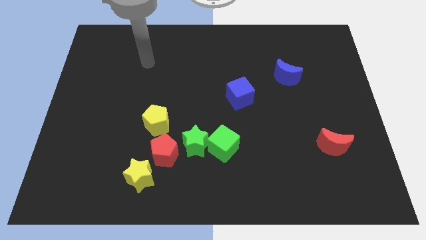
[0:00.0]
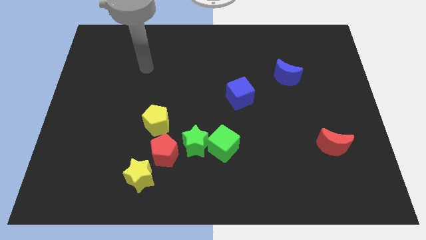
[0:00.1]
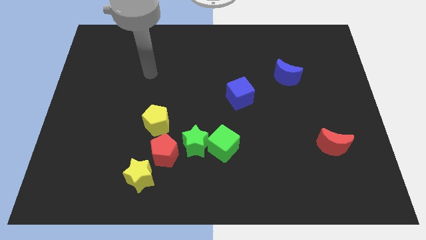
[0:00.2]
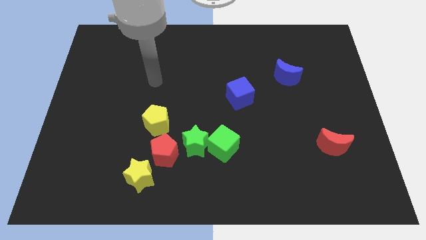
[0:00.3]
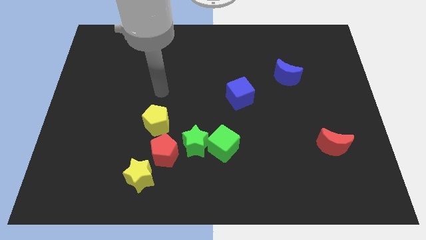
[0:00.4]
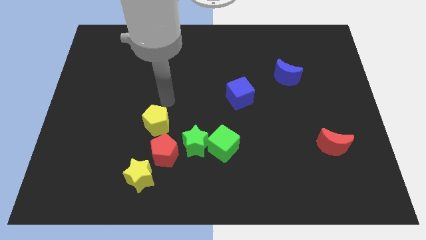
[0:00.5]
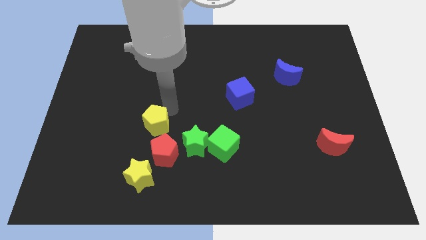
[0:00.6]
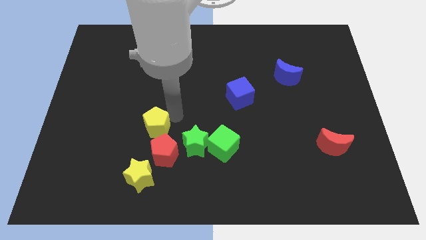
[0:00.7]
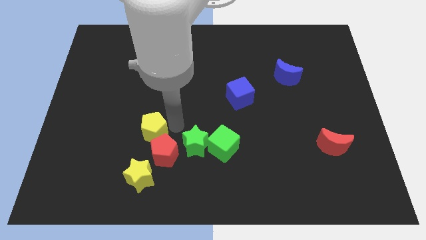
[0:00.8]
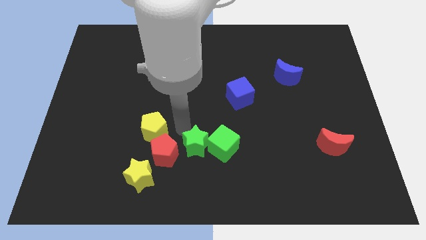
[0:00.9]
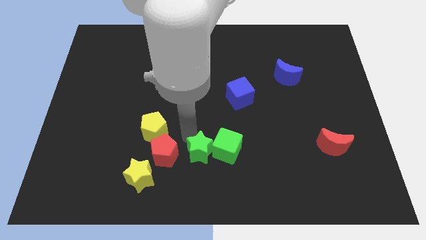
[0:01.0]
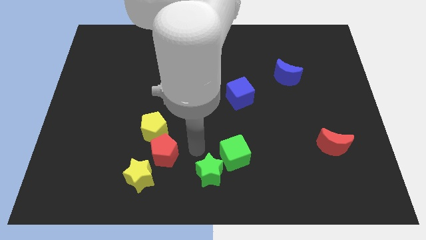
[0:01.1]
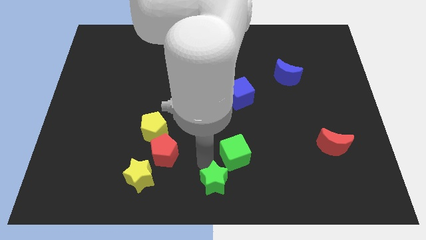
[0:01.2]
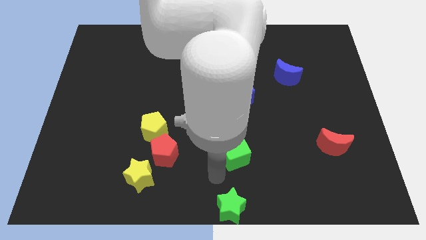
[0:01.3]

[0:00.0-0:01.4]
move the green cube away from the green star

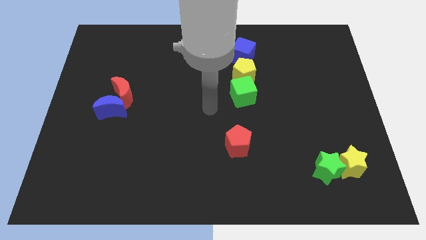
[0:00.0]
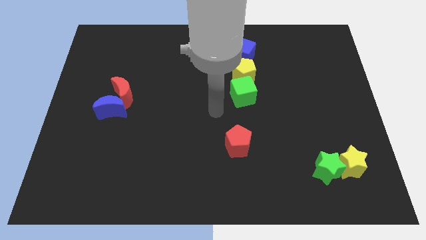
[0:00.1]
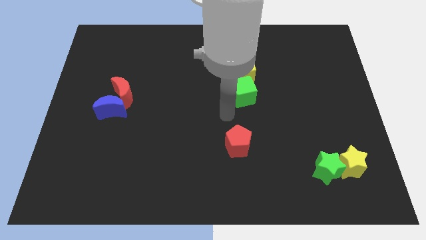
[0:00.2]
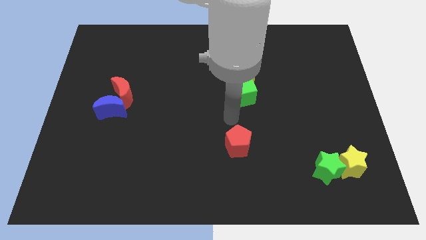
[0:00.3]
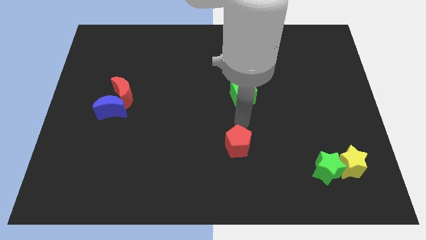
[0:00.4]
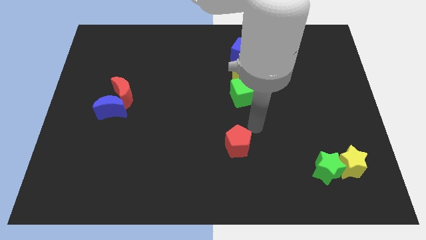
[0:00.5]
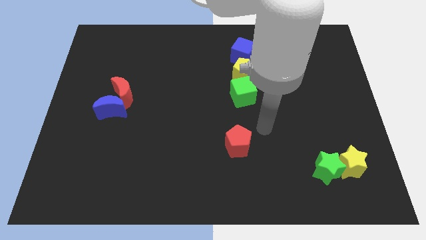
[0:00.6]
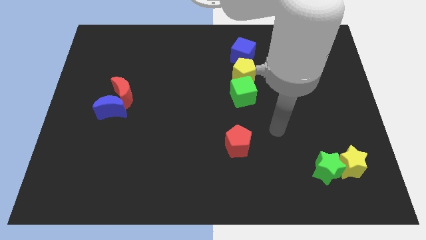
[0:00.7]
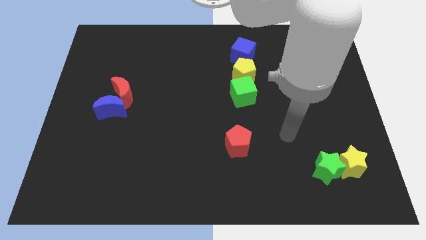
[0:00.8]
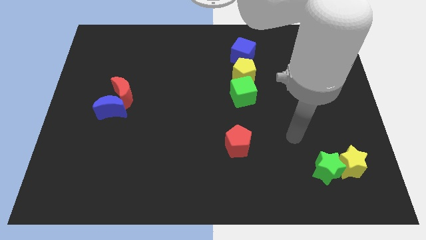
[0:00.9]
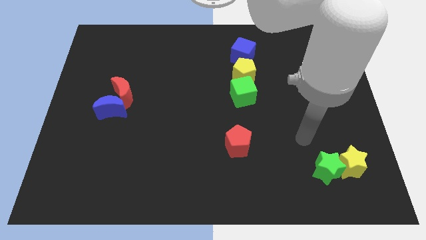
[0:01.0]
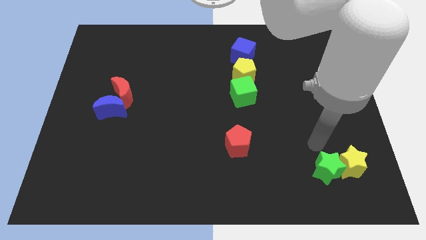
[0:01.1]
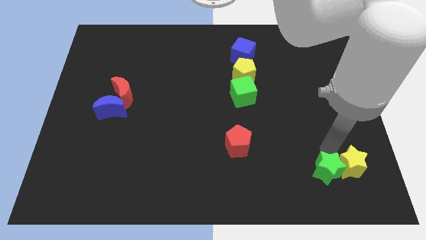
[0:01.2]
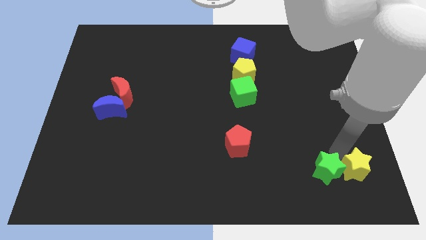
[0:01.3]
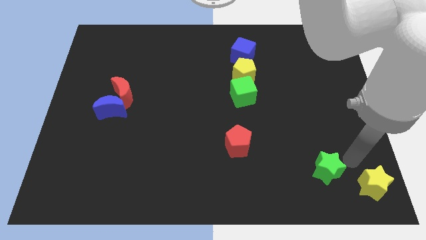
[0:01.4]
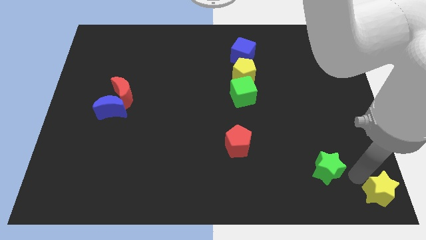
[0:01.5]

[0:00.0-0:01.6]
move the green star away from the yellow star

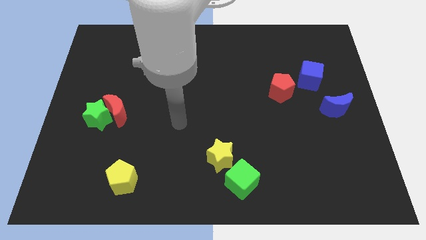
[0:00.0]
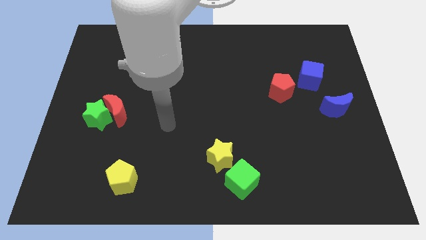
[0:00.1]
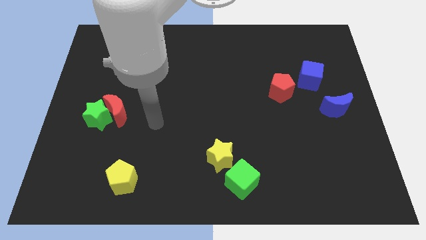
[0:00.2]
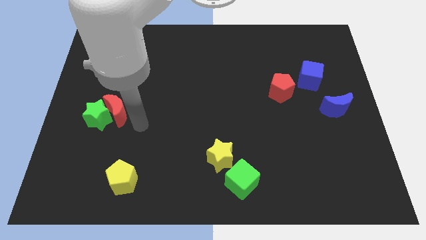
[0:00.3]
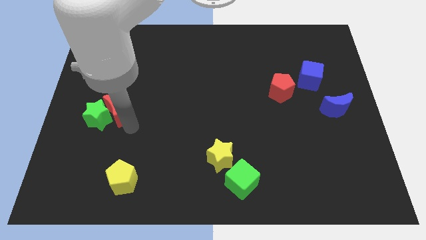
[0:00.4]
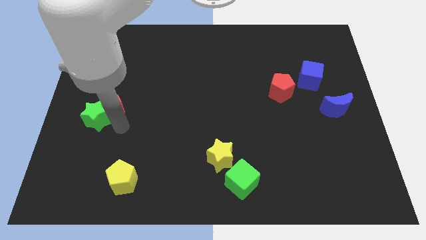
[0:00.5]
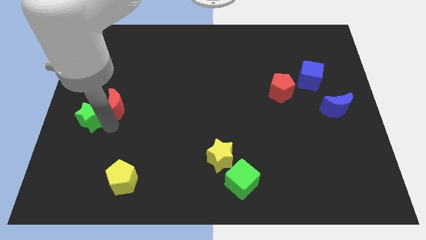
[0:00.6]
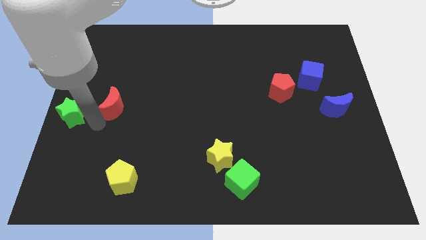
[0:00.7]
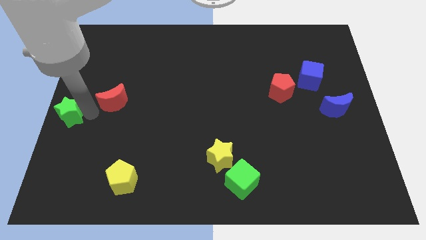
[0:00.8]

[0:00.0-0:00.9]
separate the red moon from the green star

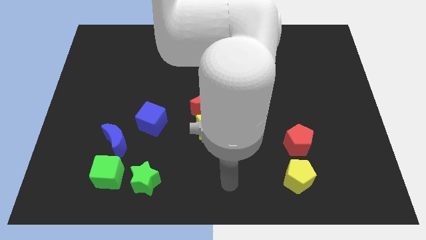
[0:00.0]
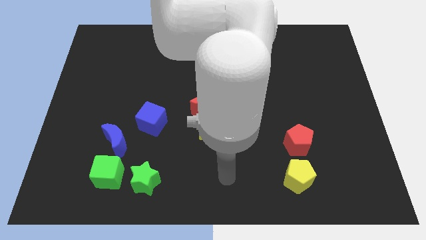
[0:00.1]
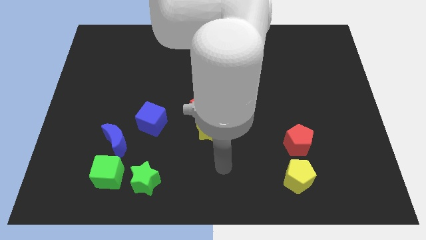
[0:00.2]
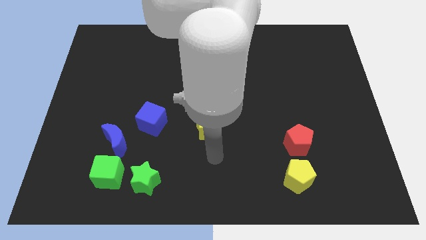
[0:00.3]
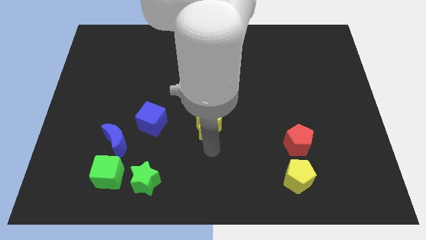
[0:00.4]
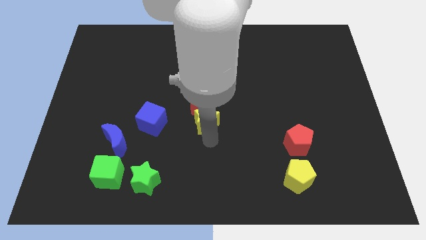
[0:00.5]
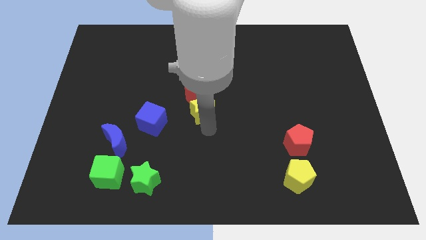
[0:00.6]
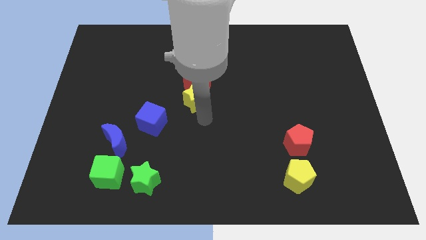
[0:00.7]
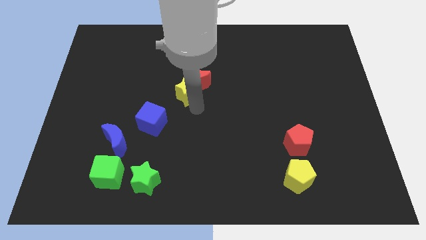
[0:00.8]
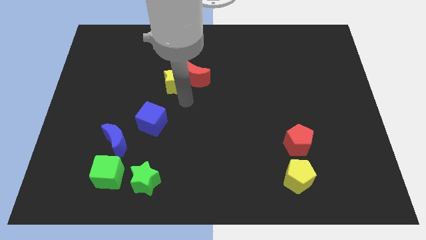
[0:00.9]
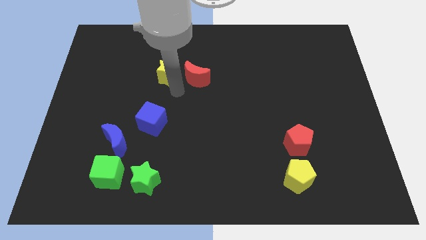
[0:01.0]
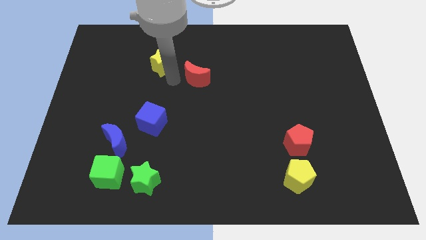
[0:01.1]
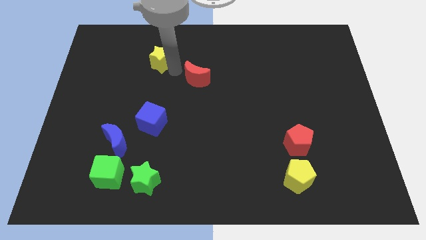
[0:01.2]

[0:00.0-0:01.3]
separate the red moon from the yellow star

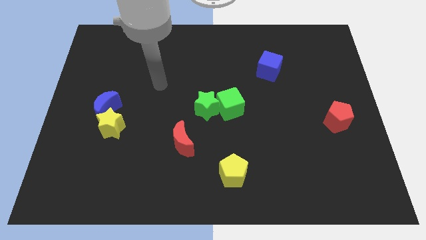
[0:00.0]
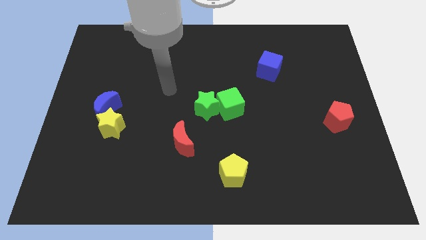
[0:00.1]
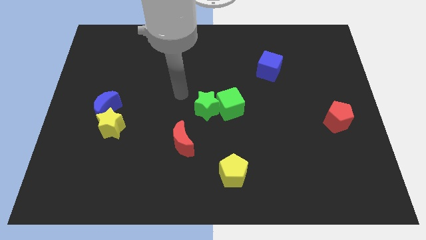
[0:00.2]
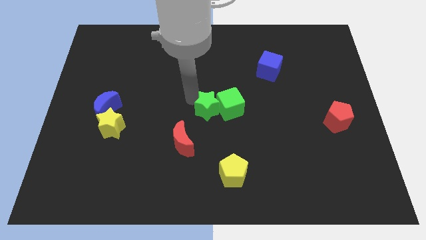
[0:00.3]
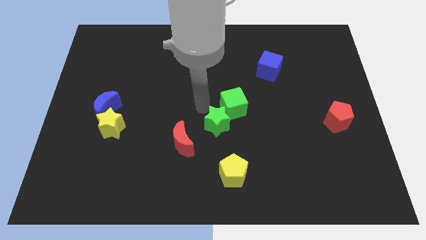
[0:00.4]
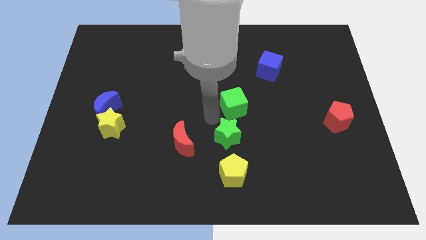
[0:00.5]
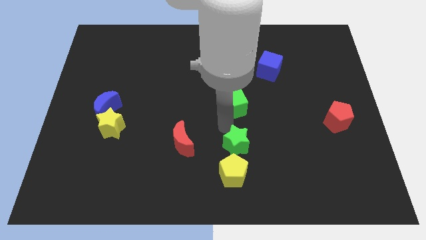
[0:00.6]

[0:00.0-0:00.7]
pull the green cube apart from the green star

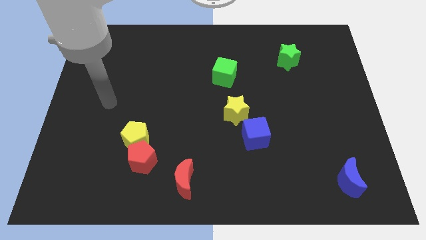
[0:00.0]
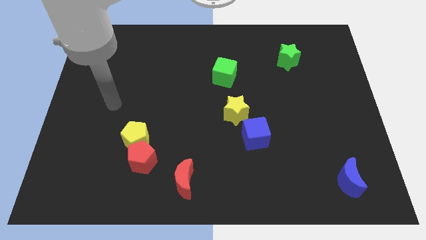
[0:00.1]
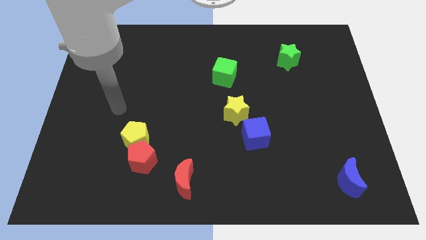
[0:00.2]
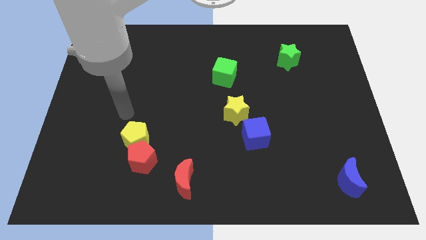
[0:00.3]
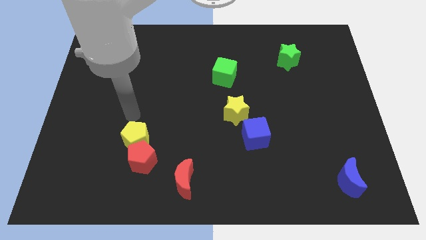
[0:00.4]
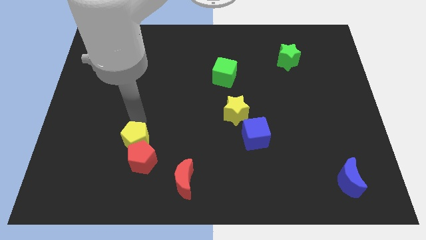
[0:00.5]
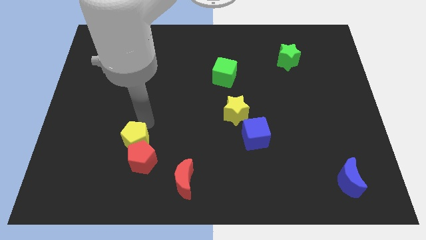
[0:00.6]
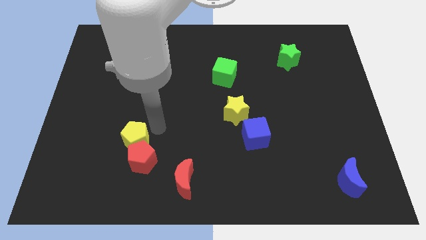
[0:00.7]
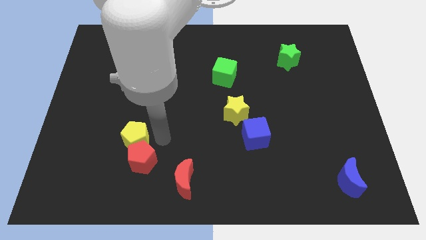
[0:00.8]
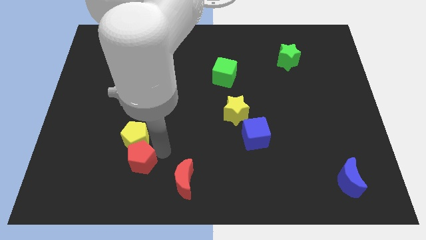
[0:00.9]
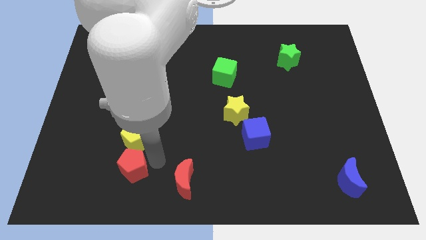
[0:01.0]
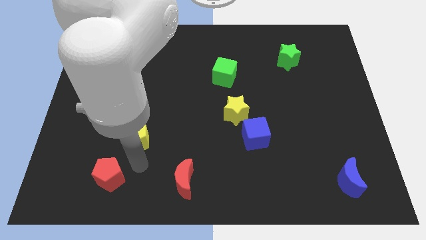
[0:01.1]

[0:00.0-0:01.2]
separate the yellow pentagon from the red pentagon

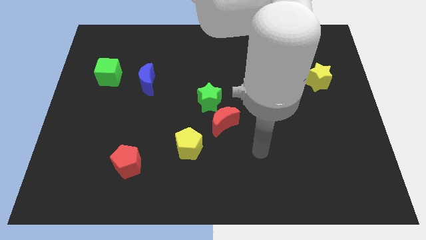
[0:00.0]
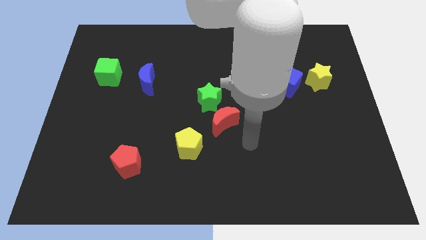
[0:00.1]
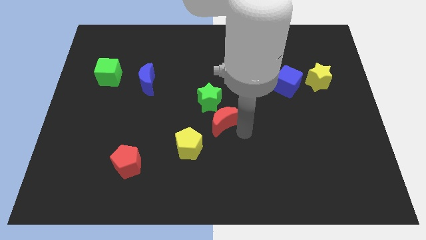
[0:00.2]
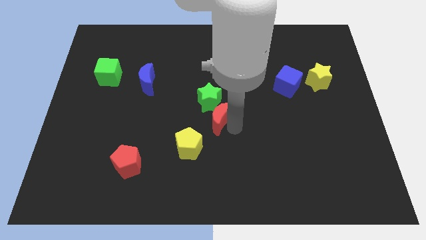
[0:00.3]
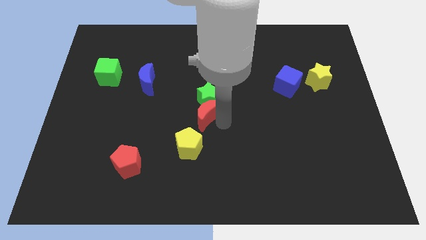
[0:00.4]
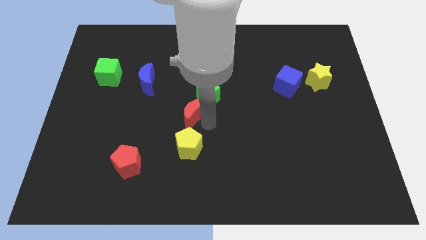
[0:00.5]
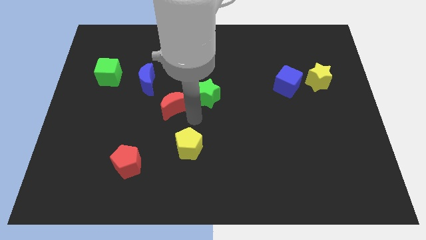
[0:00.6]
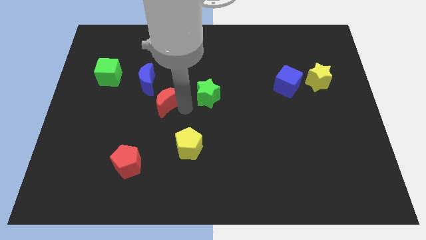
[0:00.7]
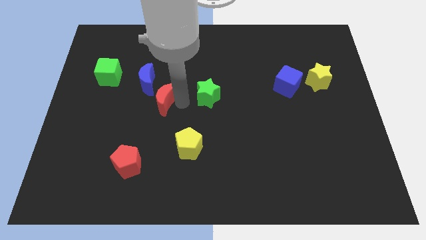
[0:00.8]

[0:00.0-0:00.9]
separate the green star from the red moon

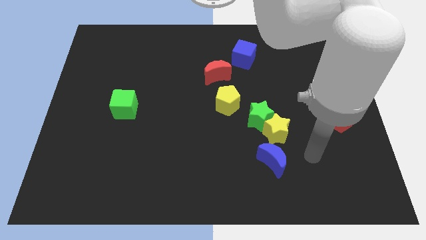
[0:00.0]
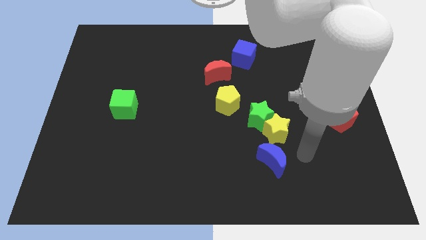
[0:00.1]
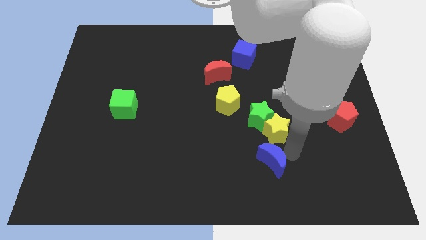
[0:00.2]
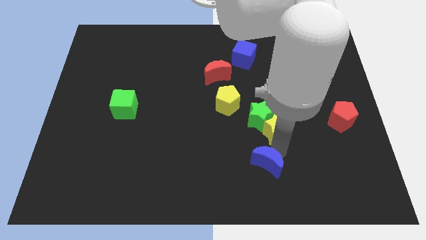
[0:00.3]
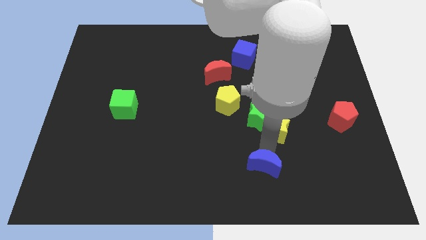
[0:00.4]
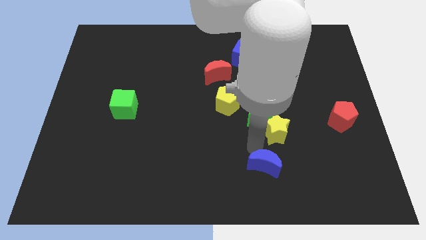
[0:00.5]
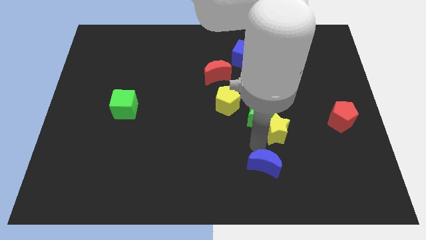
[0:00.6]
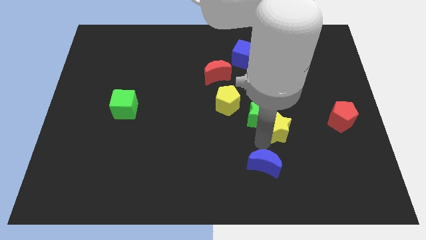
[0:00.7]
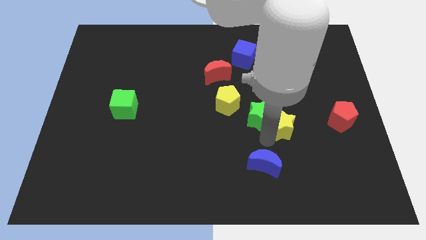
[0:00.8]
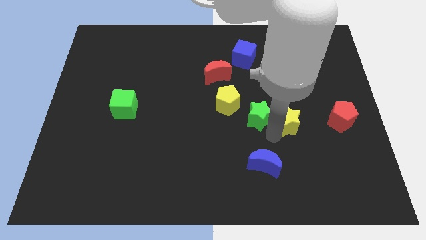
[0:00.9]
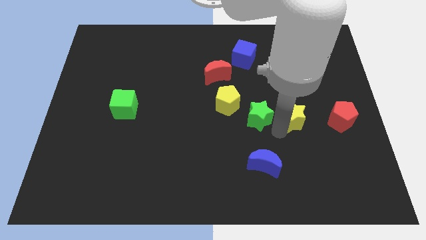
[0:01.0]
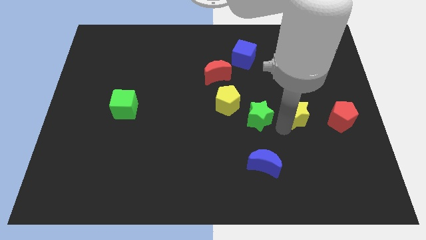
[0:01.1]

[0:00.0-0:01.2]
move the yellow star away from the green star and blue moon

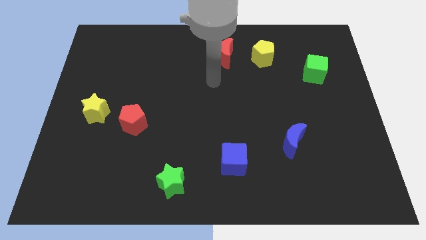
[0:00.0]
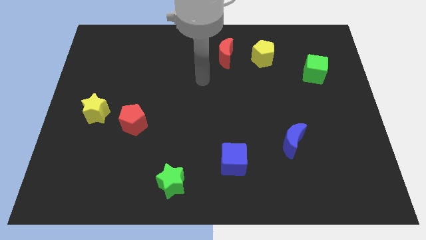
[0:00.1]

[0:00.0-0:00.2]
move the red pentagon away from the yellow star

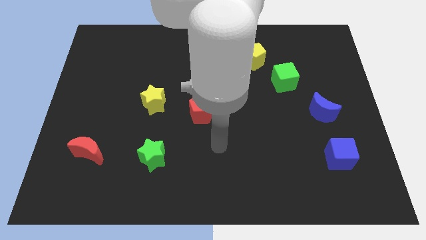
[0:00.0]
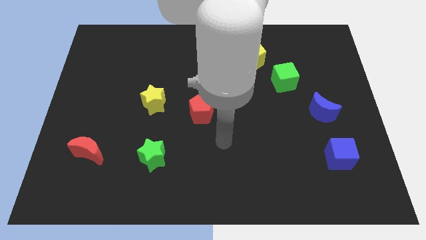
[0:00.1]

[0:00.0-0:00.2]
pull the green cube apart from the yellow pentagon
